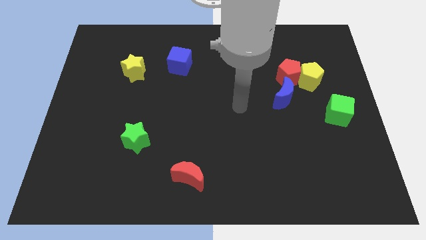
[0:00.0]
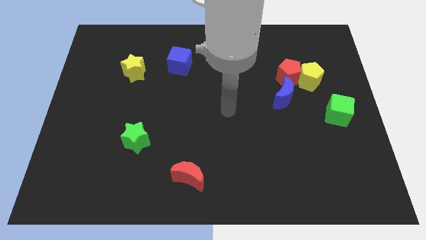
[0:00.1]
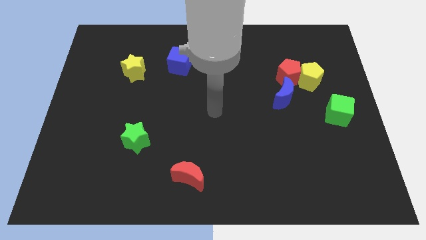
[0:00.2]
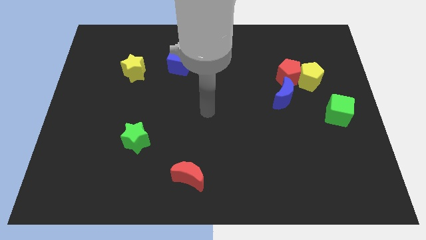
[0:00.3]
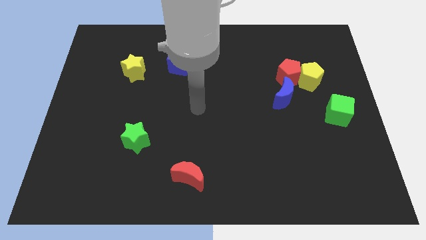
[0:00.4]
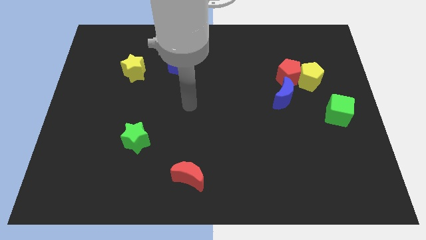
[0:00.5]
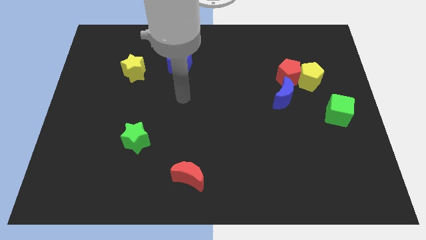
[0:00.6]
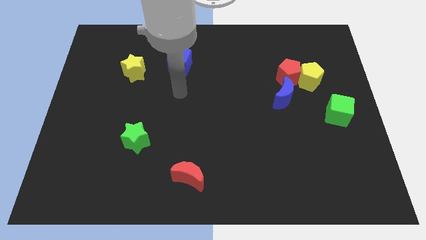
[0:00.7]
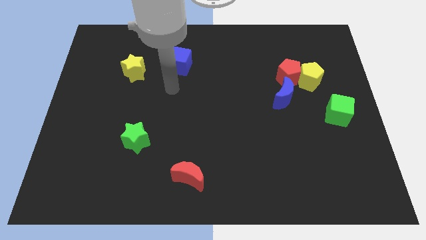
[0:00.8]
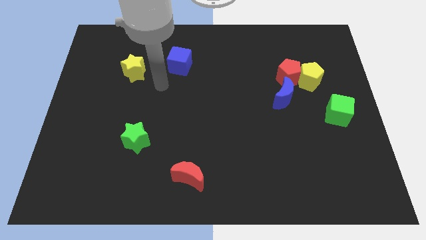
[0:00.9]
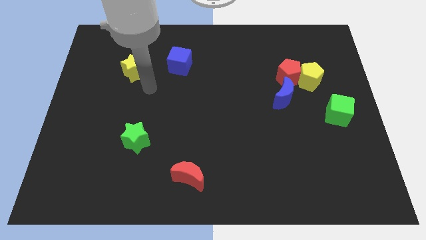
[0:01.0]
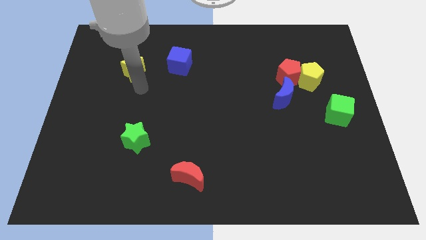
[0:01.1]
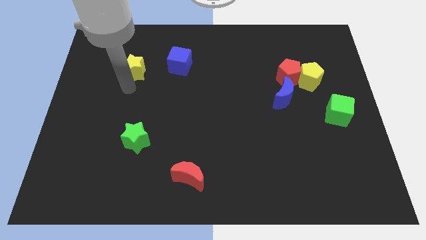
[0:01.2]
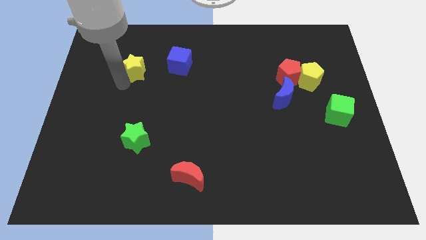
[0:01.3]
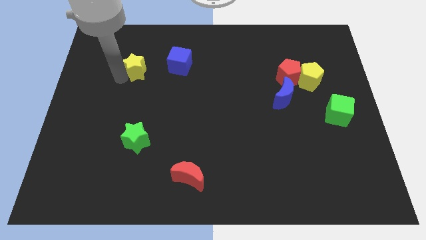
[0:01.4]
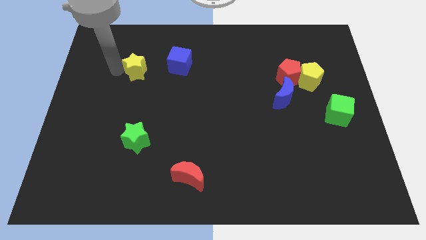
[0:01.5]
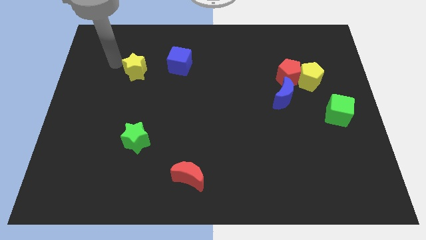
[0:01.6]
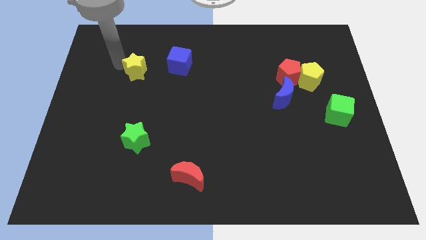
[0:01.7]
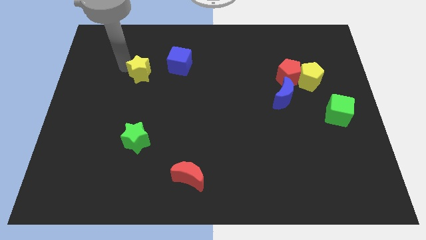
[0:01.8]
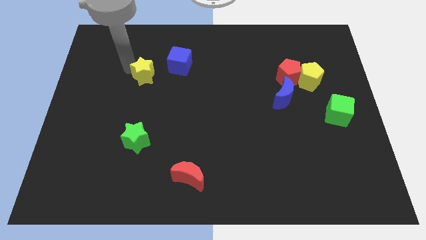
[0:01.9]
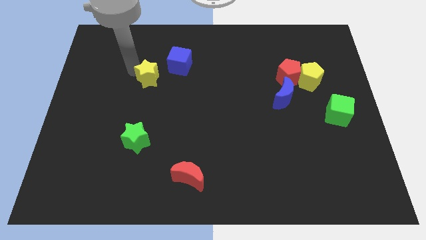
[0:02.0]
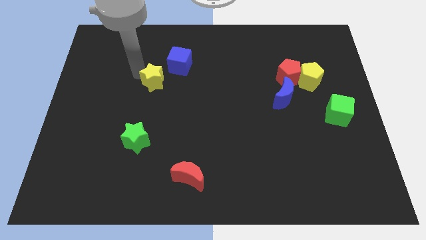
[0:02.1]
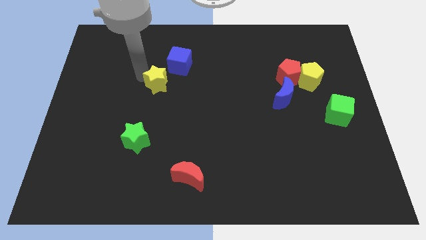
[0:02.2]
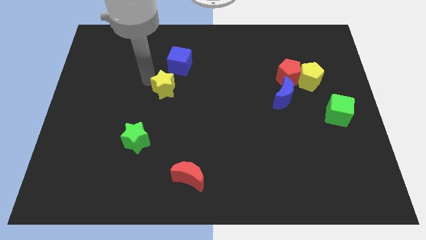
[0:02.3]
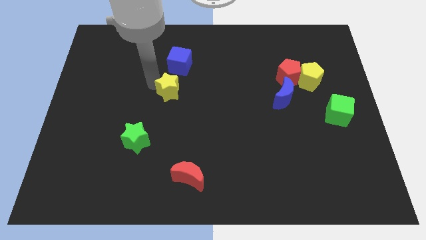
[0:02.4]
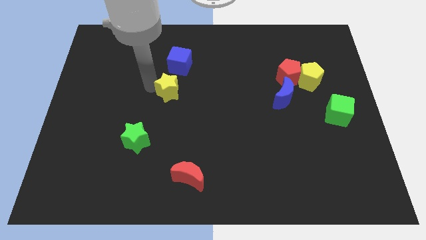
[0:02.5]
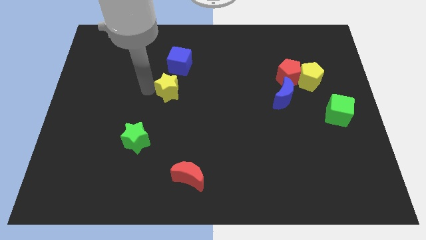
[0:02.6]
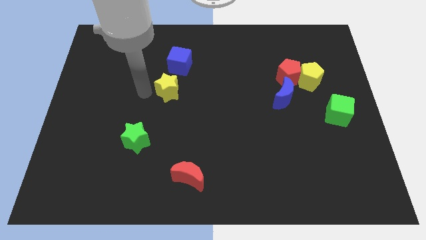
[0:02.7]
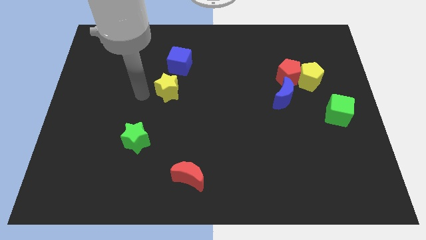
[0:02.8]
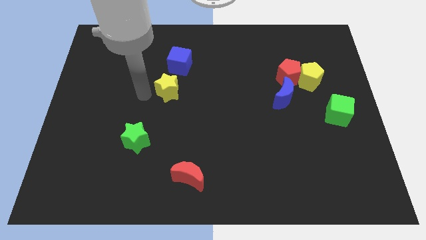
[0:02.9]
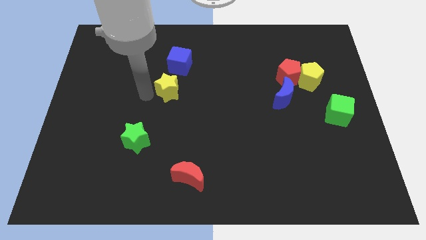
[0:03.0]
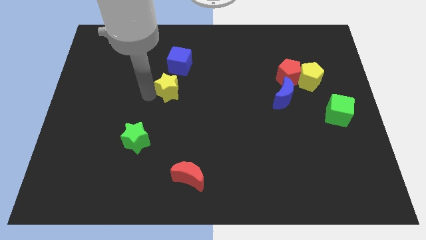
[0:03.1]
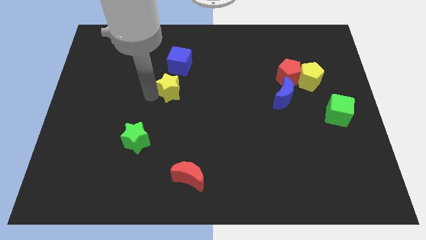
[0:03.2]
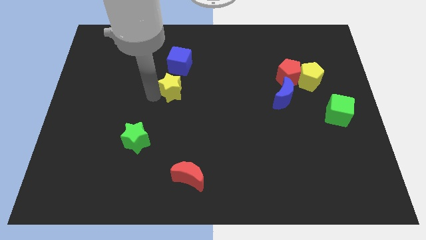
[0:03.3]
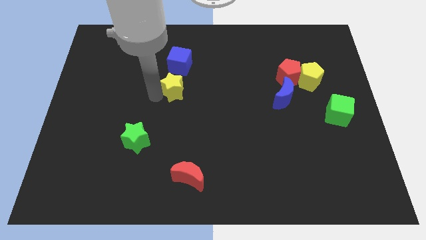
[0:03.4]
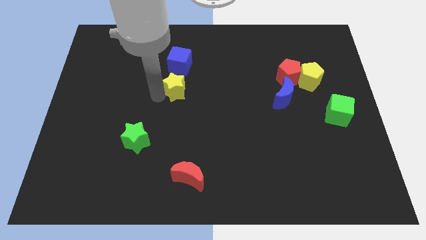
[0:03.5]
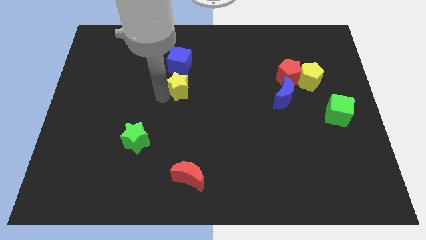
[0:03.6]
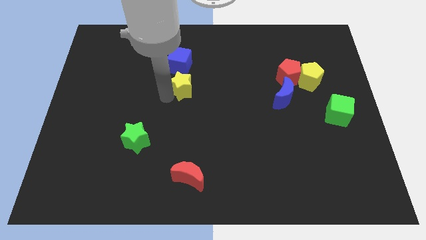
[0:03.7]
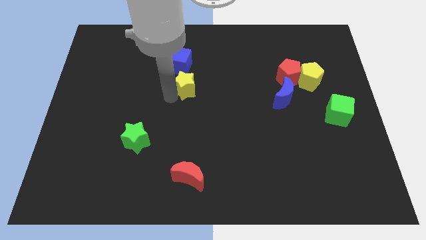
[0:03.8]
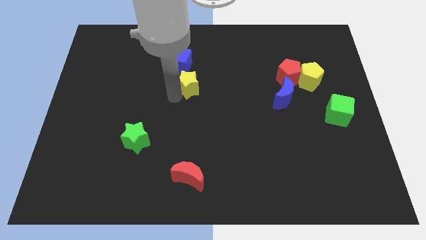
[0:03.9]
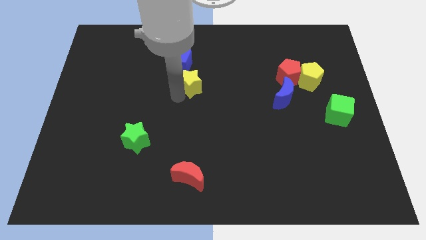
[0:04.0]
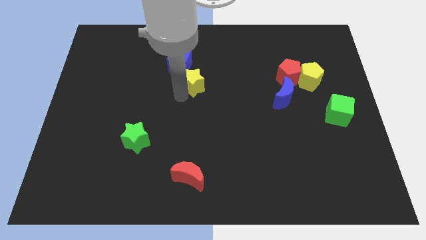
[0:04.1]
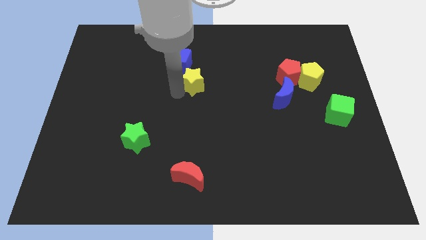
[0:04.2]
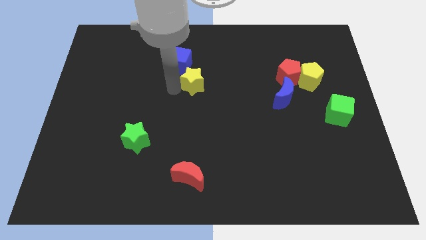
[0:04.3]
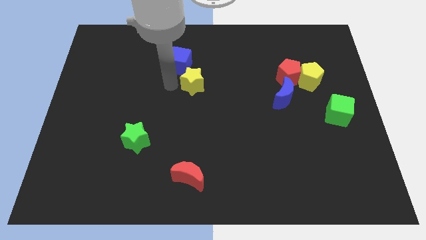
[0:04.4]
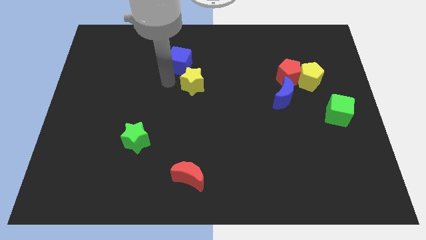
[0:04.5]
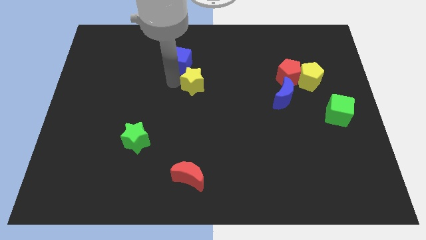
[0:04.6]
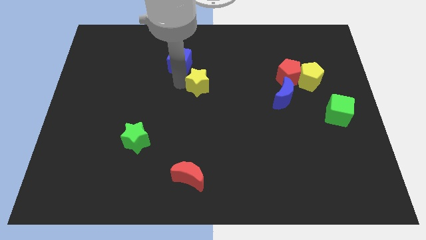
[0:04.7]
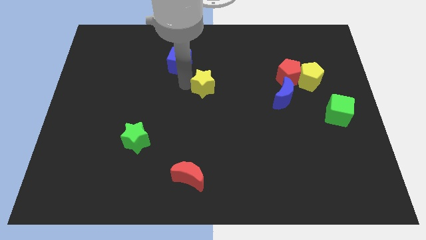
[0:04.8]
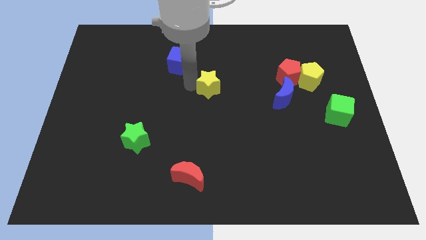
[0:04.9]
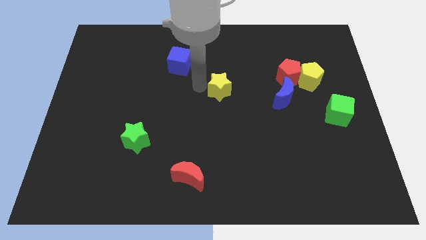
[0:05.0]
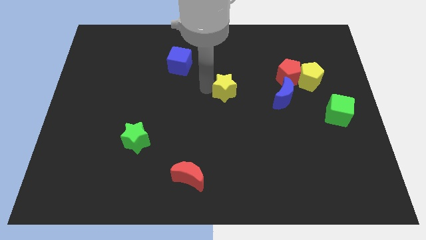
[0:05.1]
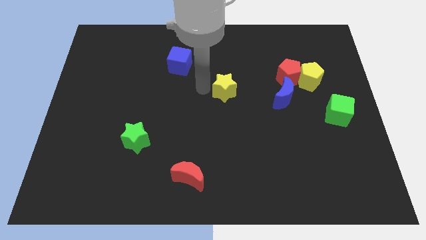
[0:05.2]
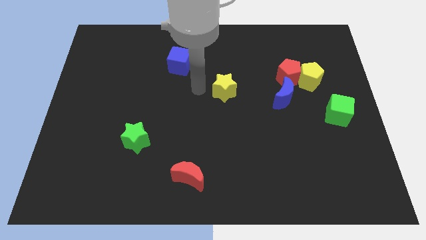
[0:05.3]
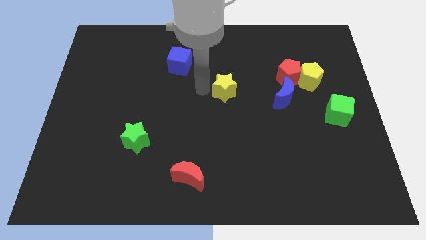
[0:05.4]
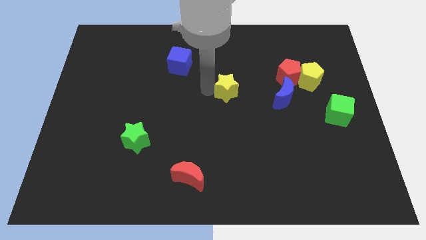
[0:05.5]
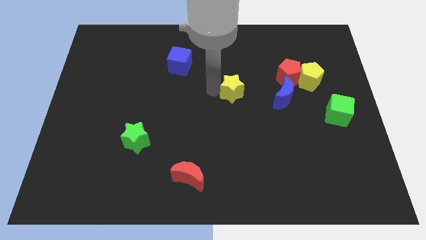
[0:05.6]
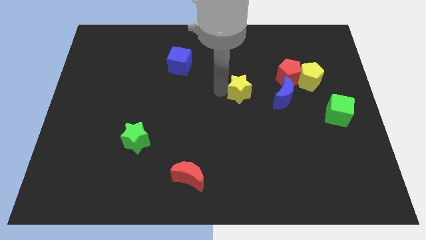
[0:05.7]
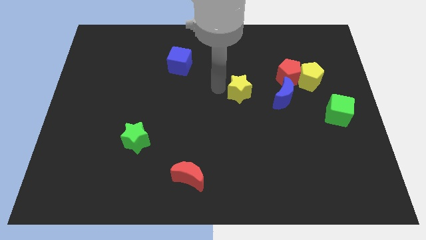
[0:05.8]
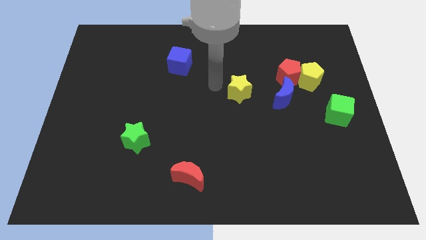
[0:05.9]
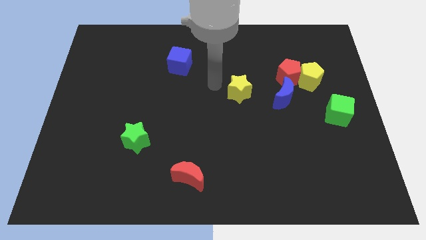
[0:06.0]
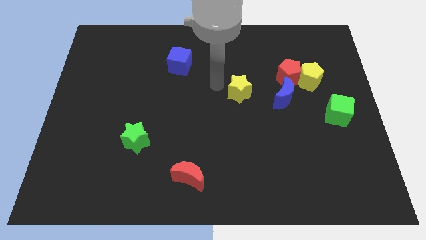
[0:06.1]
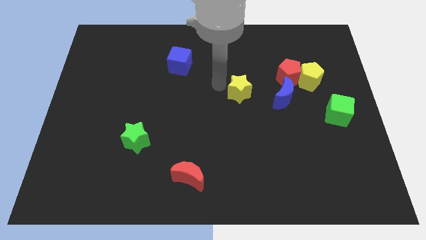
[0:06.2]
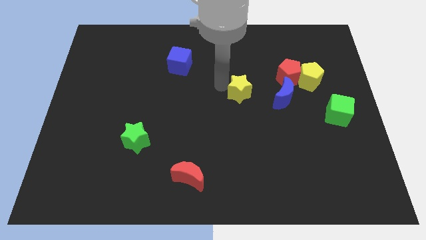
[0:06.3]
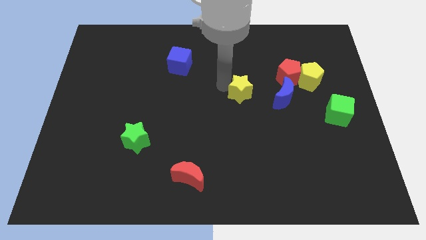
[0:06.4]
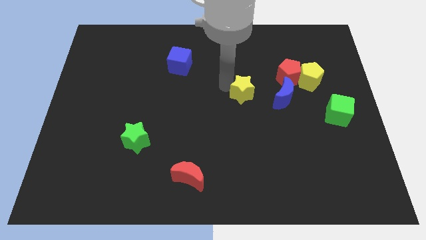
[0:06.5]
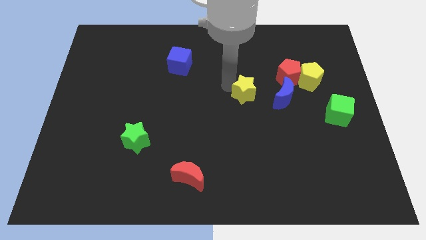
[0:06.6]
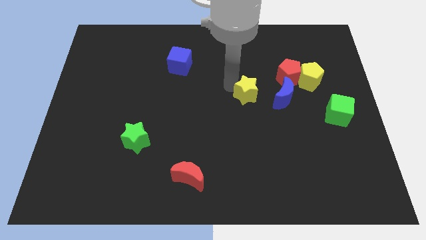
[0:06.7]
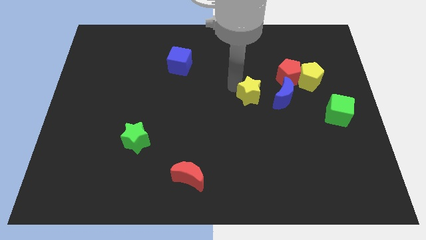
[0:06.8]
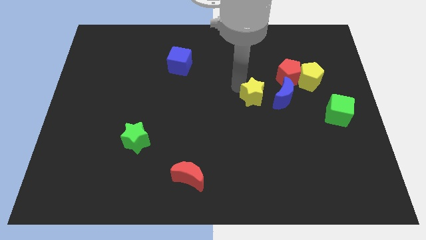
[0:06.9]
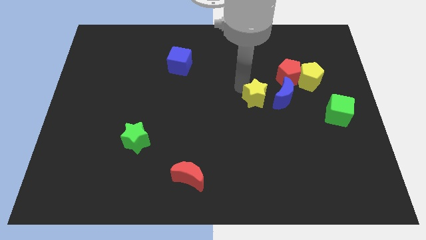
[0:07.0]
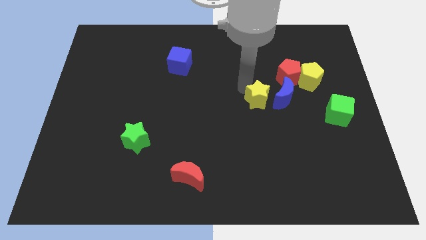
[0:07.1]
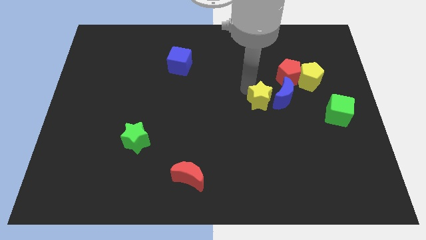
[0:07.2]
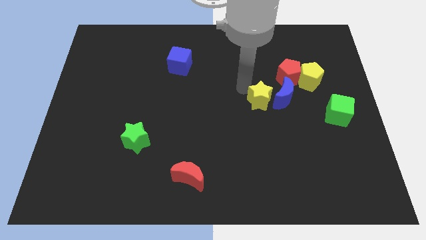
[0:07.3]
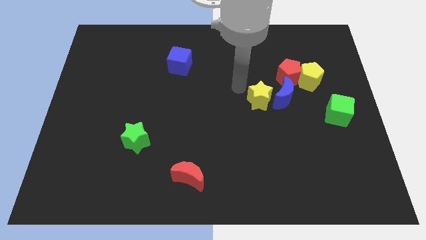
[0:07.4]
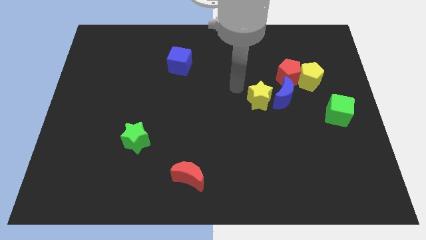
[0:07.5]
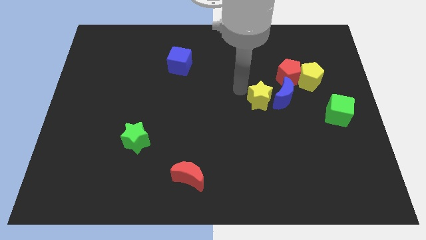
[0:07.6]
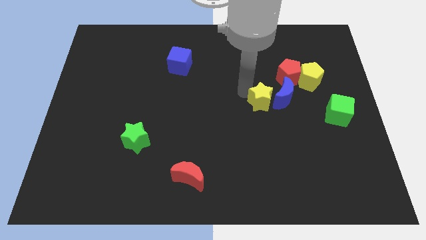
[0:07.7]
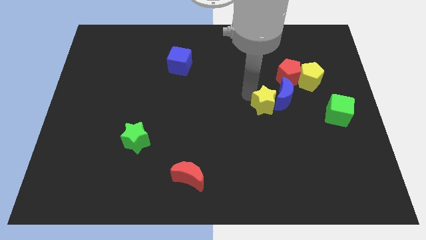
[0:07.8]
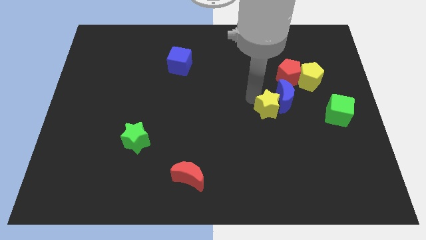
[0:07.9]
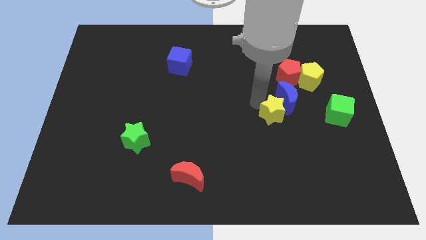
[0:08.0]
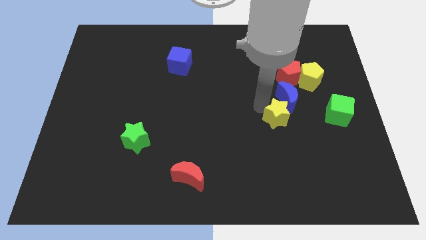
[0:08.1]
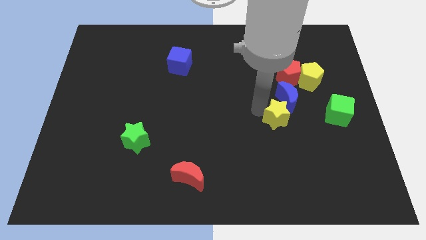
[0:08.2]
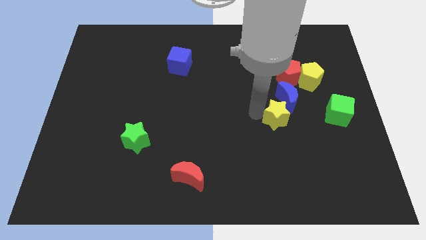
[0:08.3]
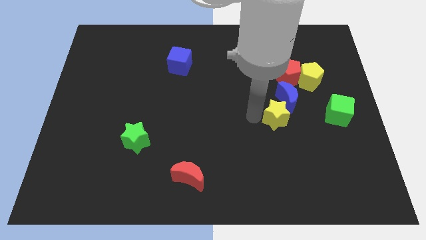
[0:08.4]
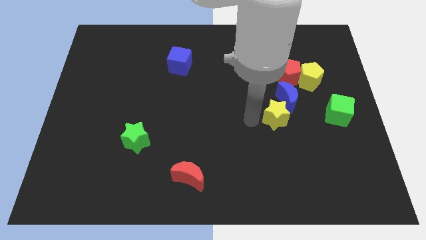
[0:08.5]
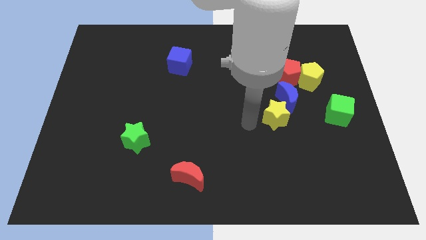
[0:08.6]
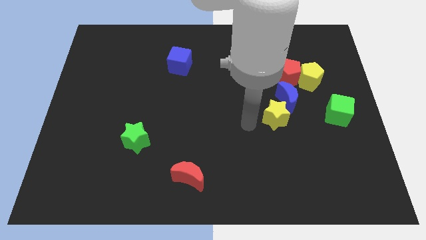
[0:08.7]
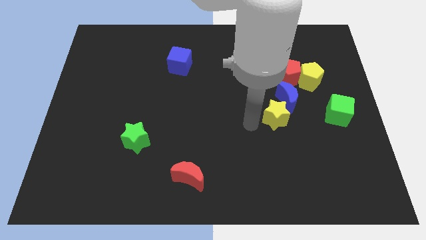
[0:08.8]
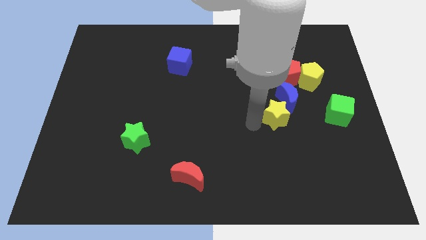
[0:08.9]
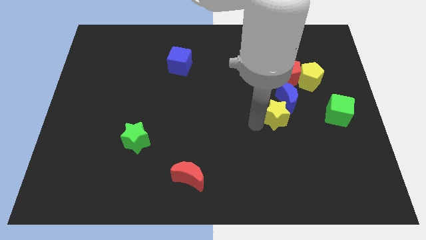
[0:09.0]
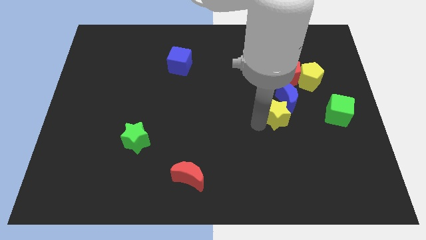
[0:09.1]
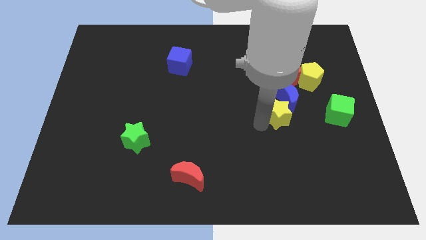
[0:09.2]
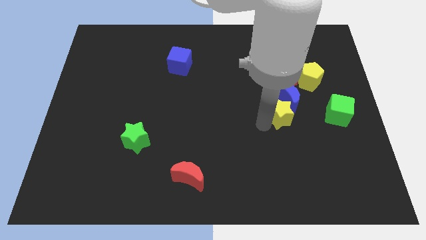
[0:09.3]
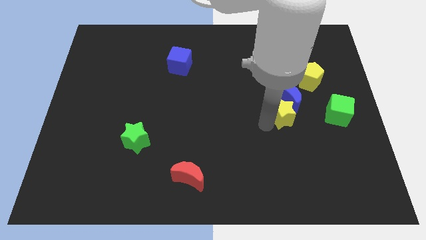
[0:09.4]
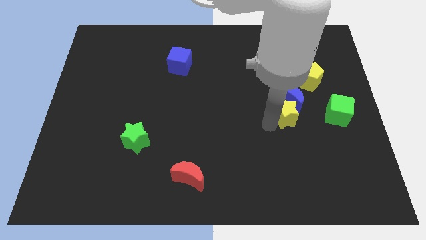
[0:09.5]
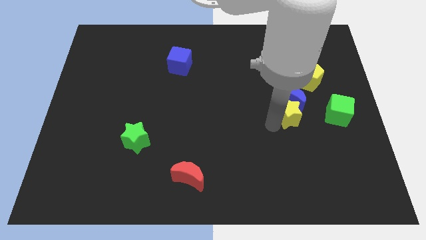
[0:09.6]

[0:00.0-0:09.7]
slide the yellow star diagonally down and to the right of the blue moon
